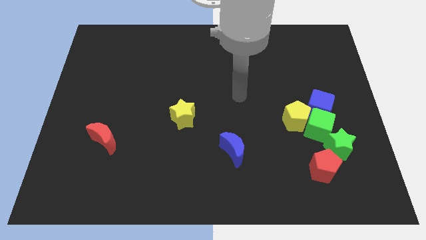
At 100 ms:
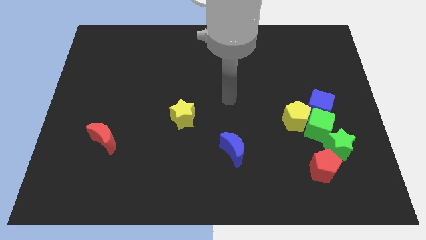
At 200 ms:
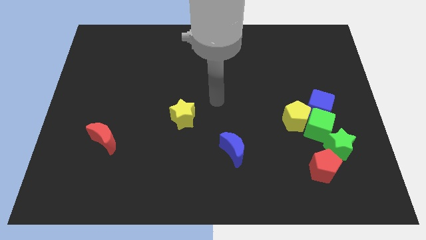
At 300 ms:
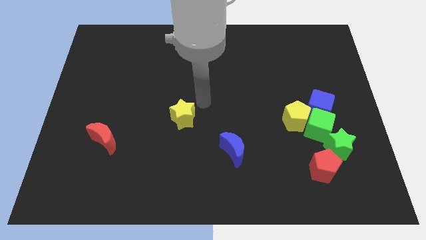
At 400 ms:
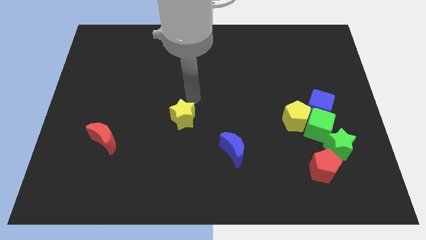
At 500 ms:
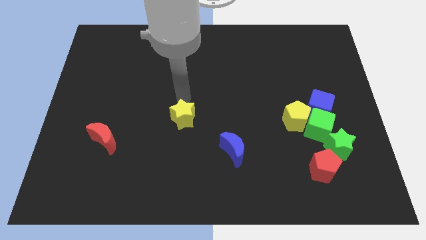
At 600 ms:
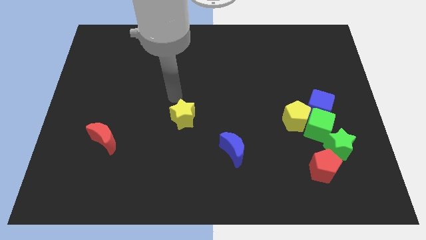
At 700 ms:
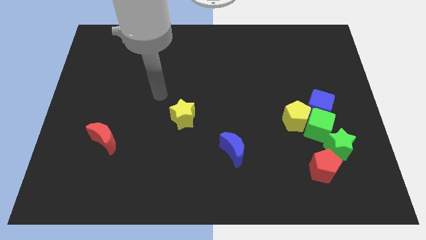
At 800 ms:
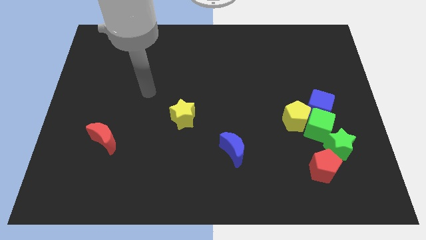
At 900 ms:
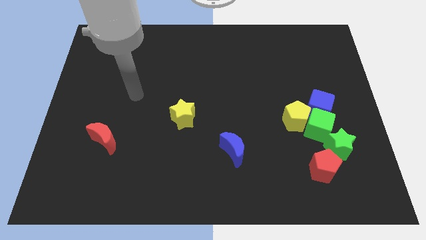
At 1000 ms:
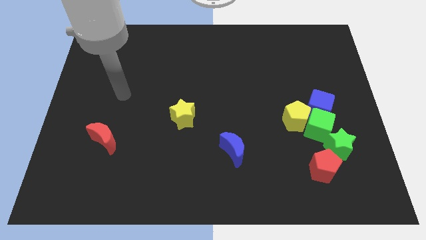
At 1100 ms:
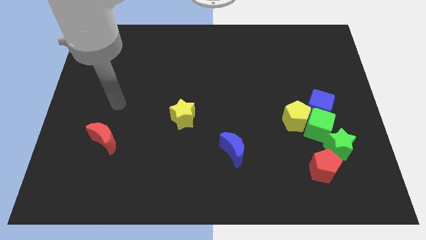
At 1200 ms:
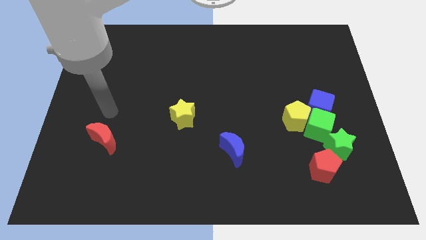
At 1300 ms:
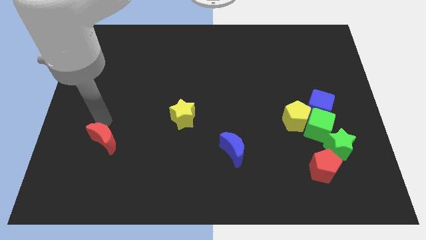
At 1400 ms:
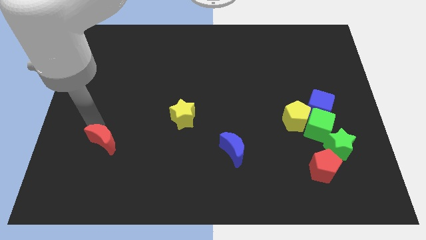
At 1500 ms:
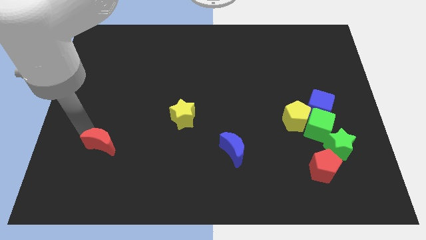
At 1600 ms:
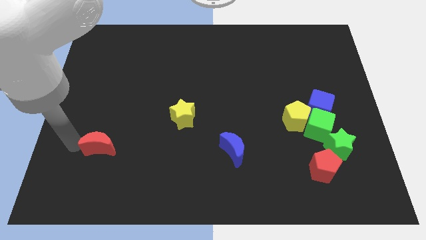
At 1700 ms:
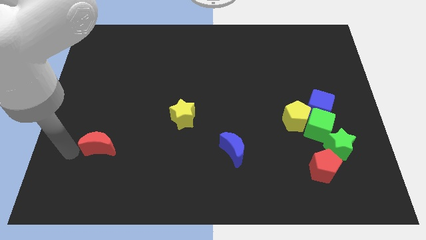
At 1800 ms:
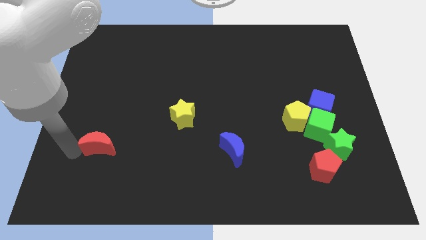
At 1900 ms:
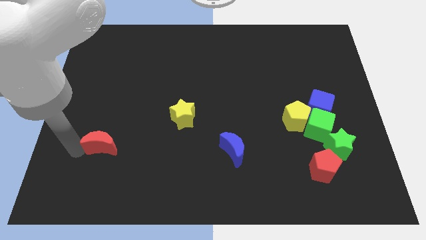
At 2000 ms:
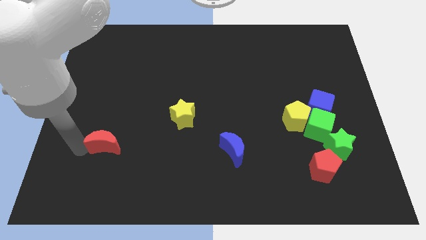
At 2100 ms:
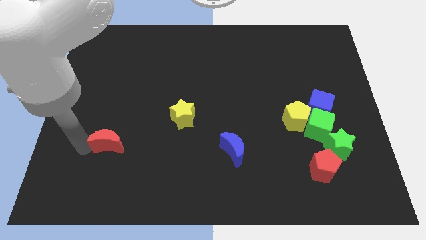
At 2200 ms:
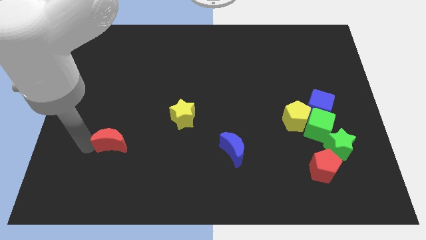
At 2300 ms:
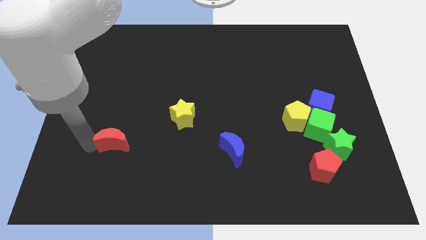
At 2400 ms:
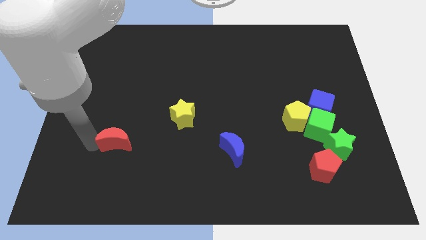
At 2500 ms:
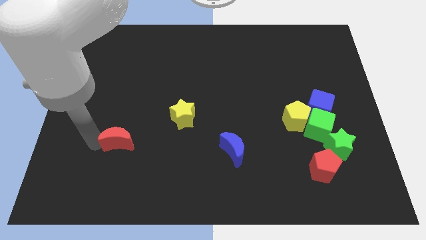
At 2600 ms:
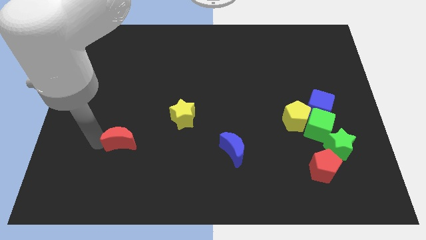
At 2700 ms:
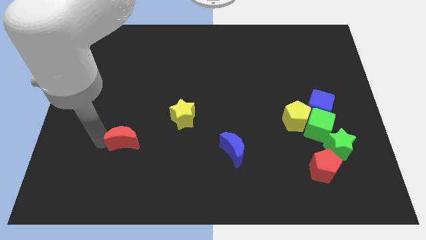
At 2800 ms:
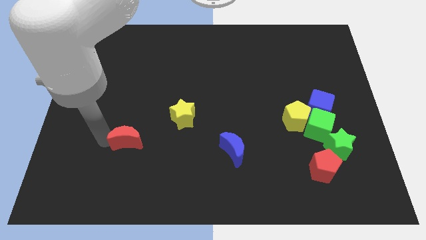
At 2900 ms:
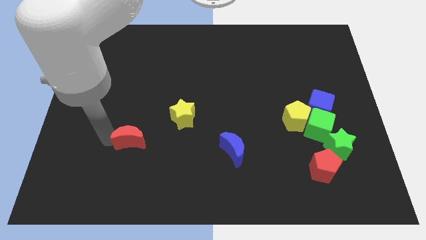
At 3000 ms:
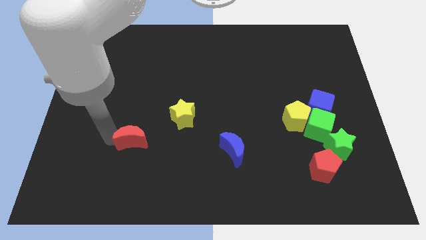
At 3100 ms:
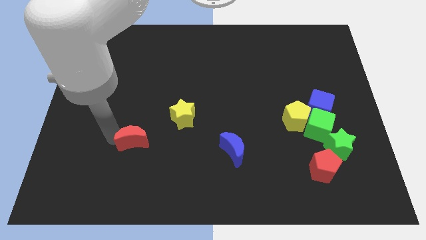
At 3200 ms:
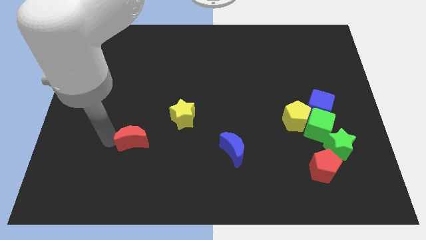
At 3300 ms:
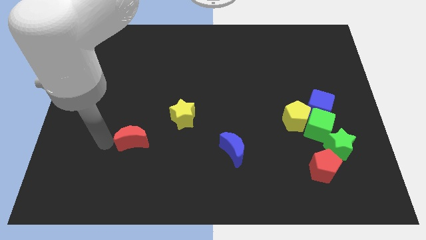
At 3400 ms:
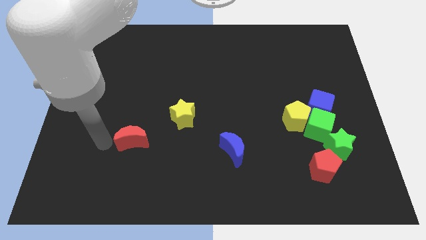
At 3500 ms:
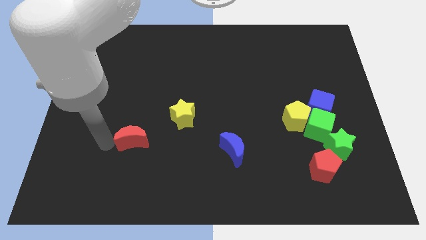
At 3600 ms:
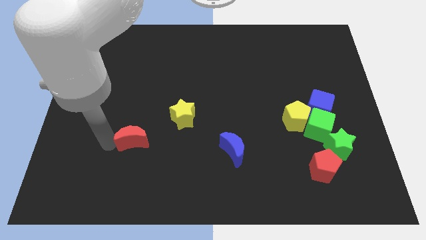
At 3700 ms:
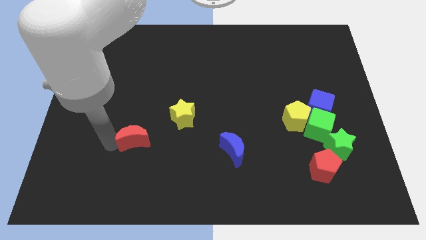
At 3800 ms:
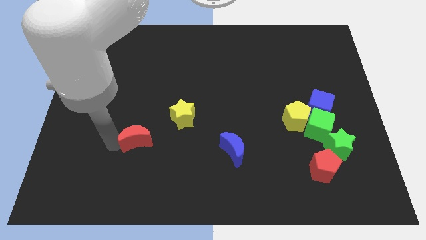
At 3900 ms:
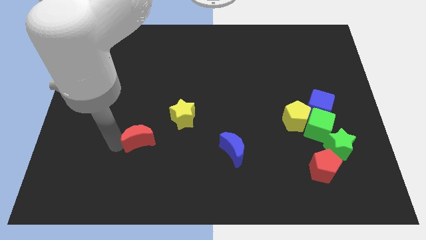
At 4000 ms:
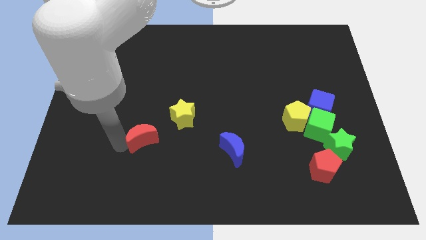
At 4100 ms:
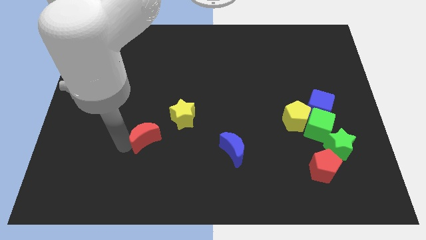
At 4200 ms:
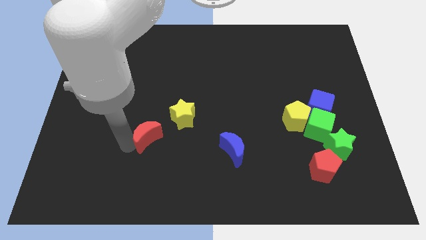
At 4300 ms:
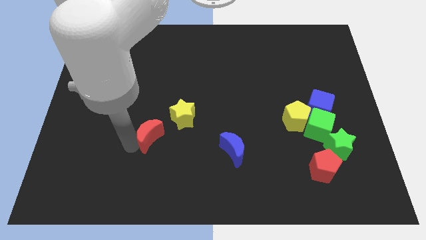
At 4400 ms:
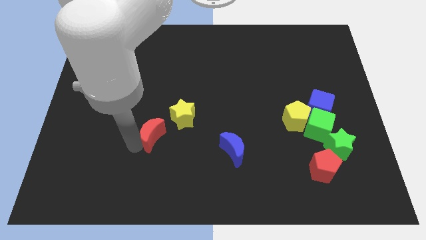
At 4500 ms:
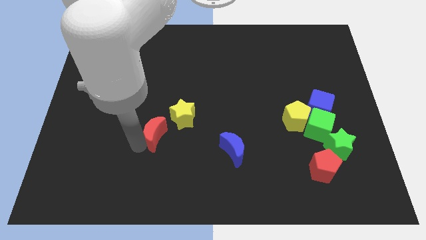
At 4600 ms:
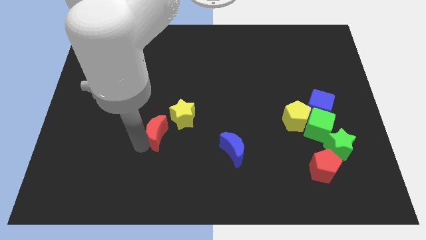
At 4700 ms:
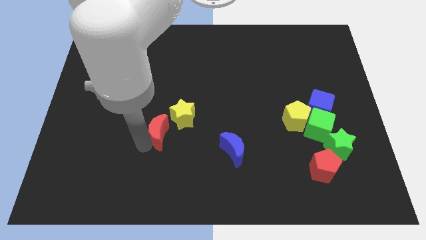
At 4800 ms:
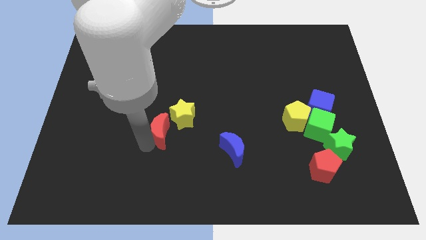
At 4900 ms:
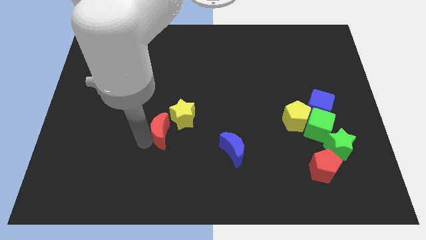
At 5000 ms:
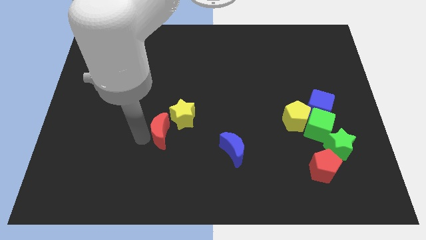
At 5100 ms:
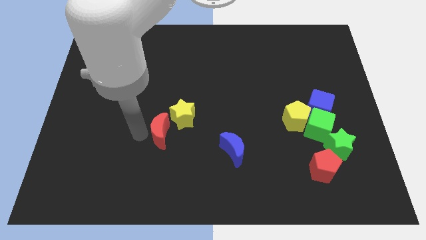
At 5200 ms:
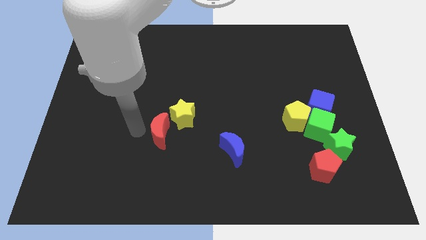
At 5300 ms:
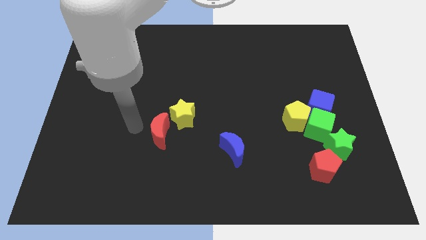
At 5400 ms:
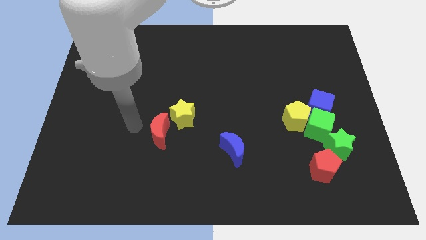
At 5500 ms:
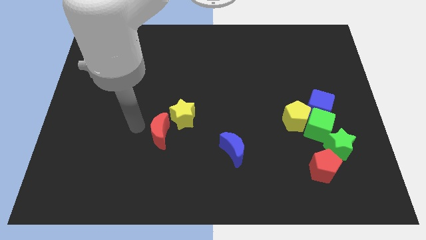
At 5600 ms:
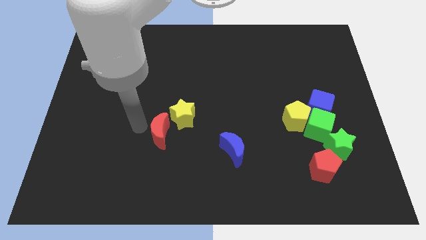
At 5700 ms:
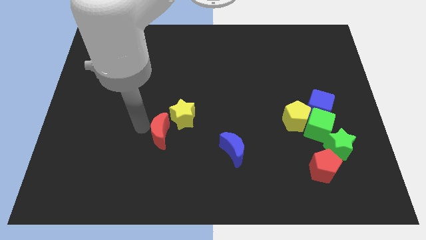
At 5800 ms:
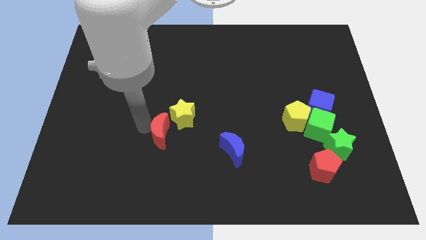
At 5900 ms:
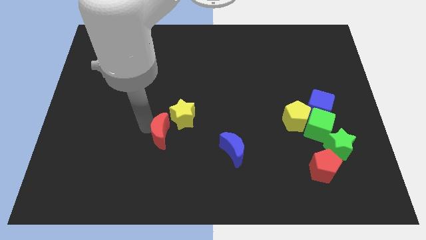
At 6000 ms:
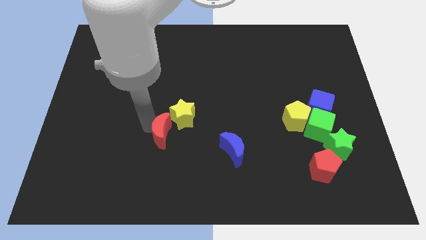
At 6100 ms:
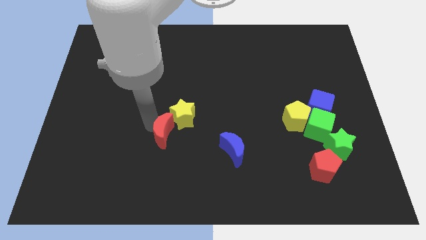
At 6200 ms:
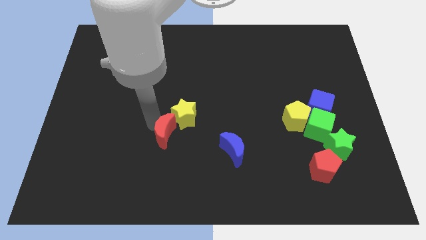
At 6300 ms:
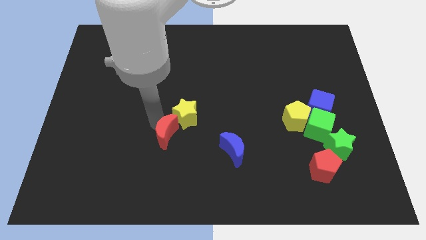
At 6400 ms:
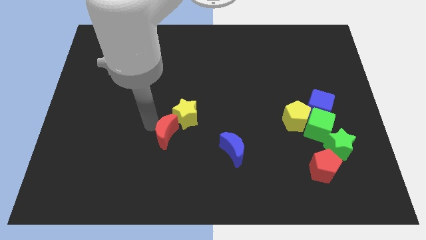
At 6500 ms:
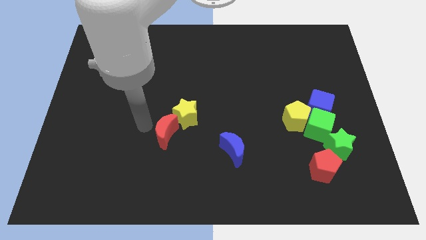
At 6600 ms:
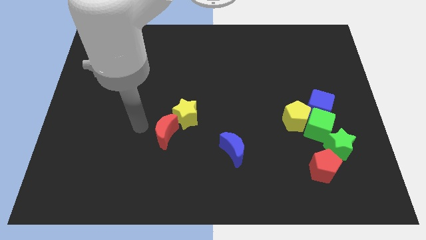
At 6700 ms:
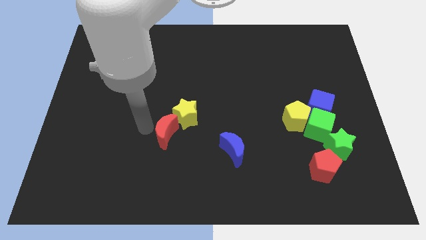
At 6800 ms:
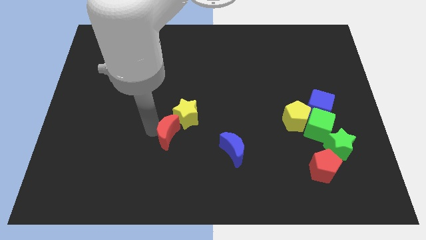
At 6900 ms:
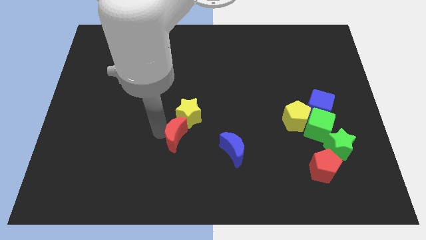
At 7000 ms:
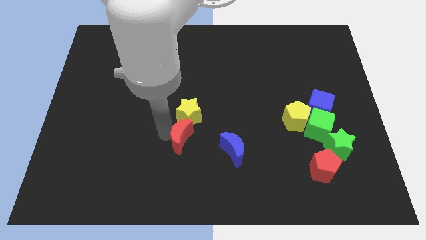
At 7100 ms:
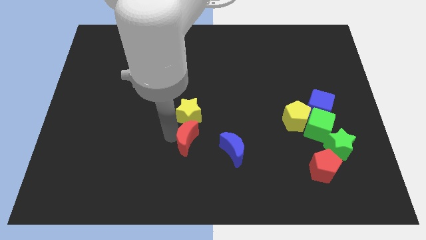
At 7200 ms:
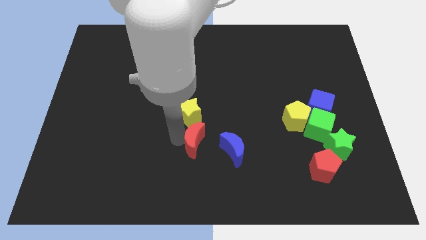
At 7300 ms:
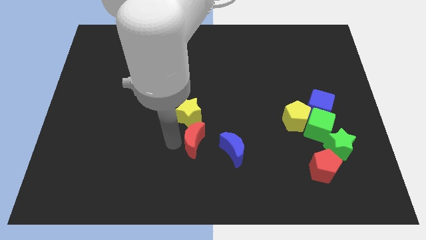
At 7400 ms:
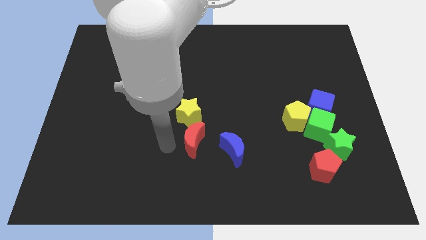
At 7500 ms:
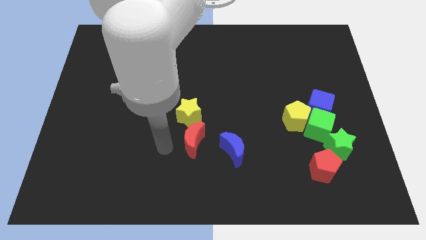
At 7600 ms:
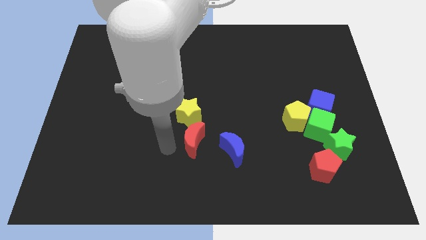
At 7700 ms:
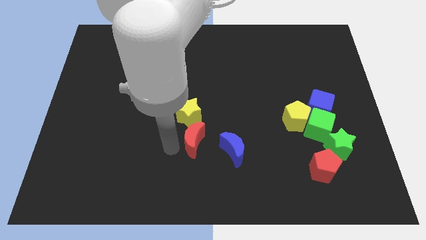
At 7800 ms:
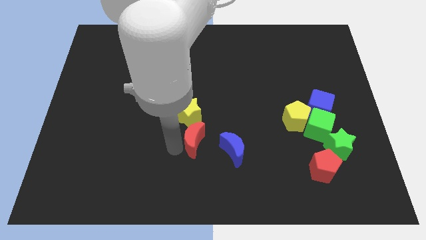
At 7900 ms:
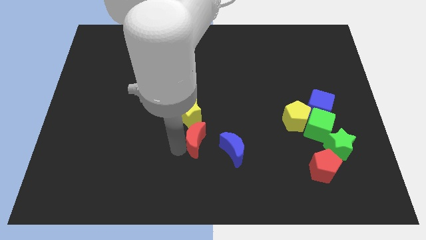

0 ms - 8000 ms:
push the red moon right

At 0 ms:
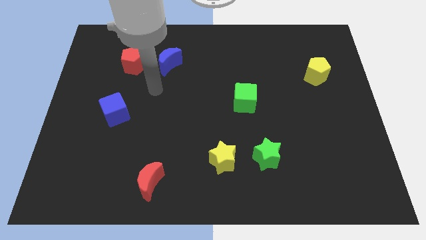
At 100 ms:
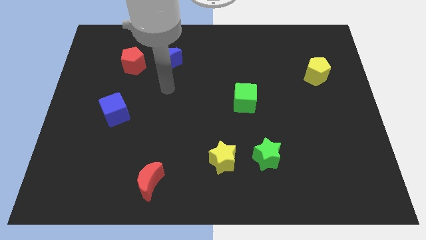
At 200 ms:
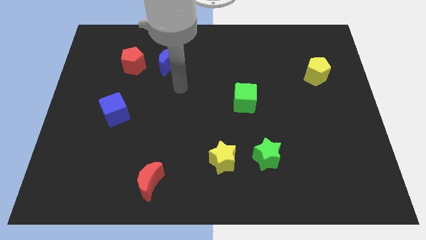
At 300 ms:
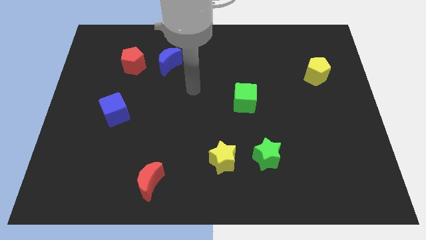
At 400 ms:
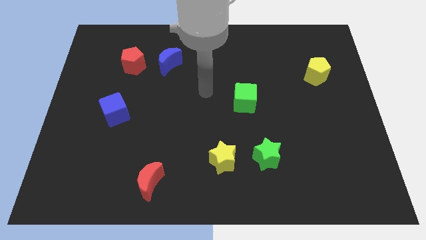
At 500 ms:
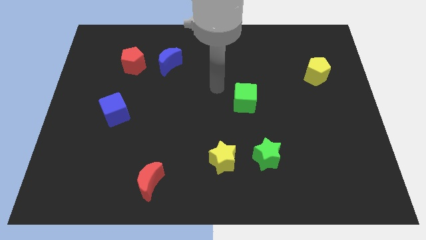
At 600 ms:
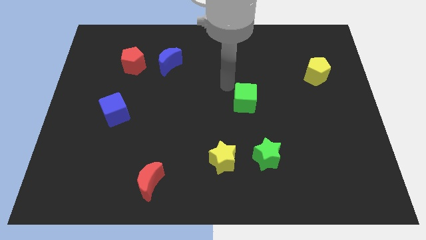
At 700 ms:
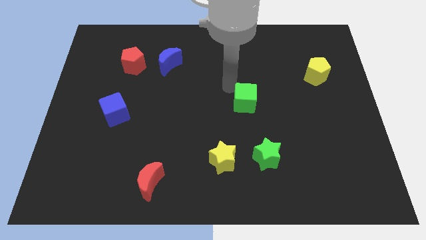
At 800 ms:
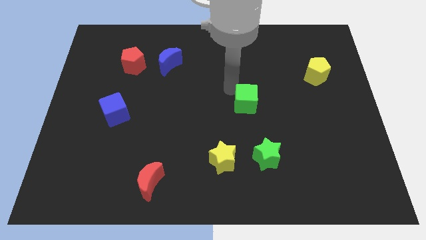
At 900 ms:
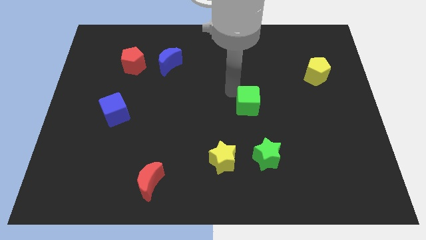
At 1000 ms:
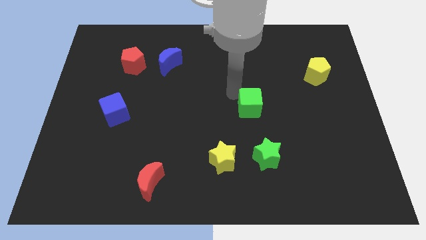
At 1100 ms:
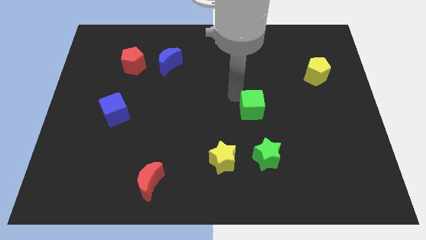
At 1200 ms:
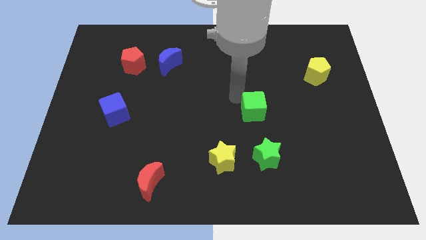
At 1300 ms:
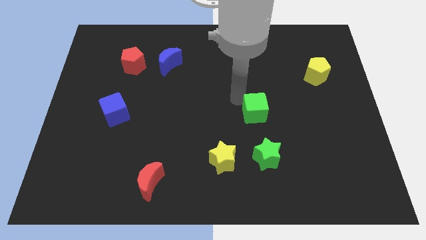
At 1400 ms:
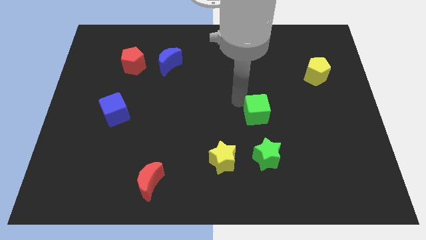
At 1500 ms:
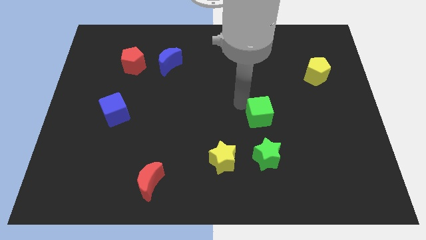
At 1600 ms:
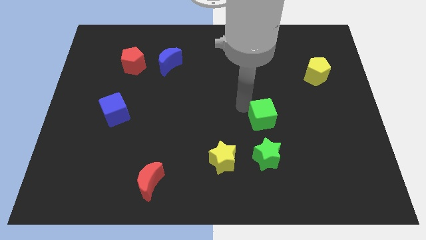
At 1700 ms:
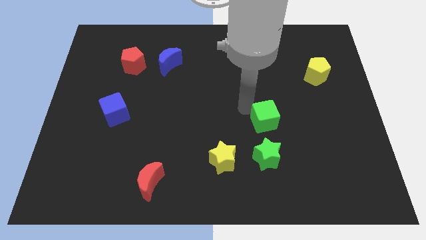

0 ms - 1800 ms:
move the green cube down and right diagonally slightly
